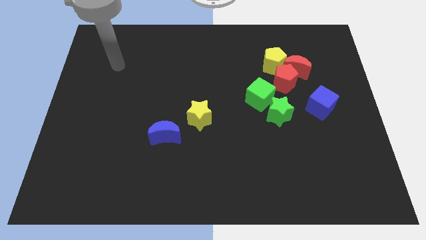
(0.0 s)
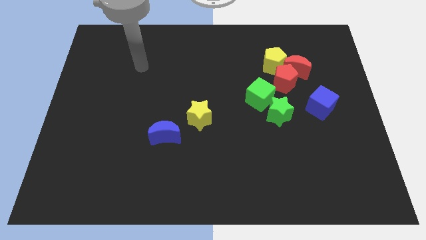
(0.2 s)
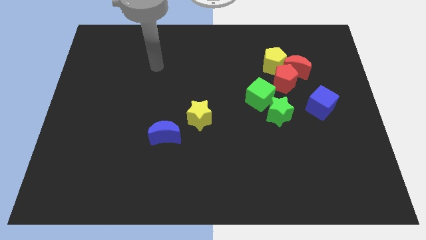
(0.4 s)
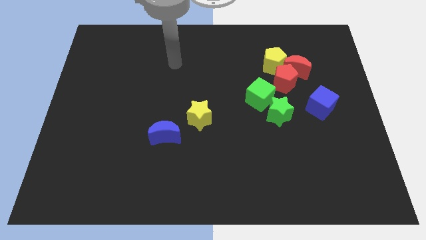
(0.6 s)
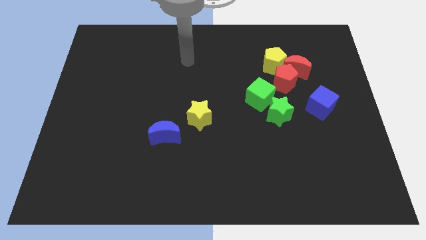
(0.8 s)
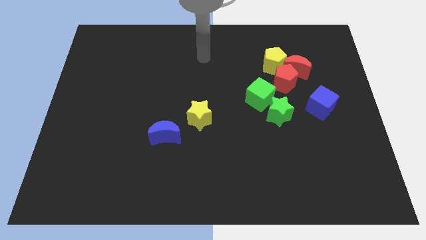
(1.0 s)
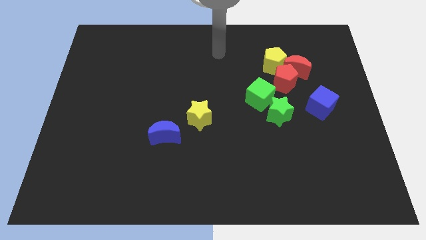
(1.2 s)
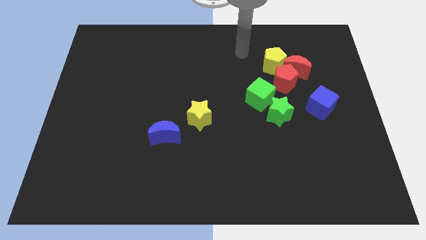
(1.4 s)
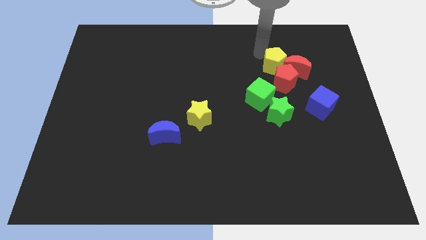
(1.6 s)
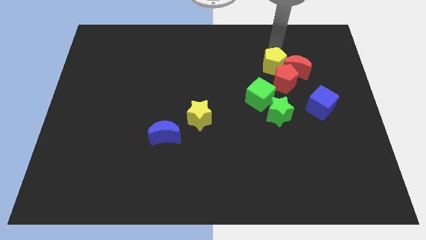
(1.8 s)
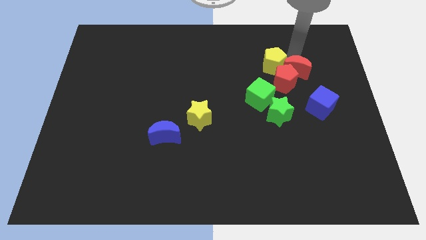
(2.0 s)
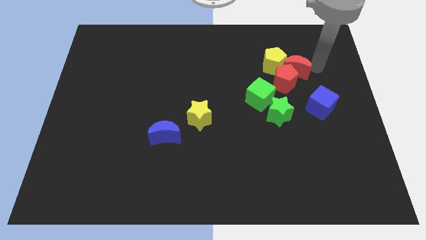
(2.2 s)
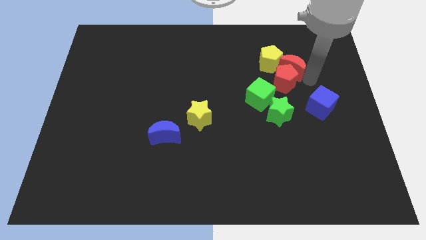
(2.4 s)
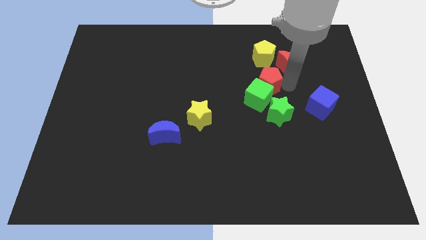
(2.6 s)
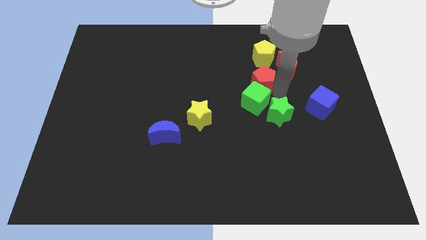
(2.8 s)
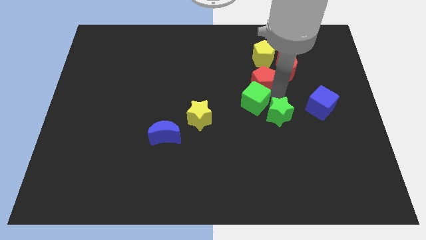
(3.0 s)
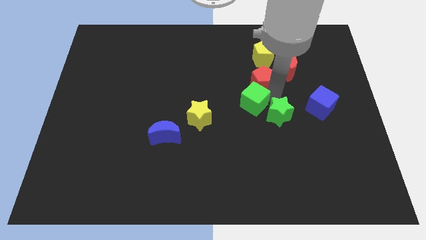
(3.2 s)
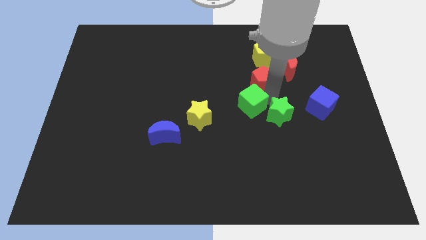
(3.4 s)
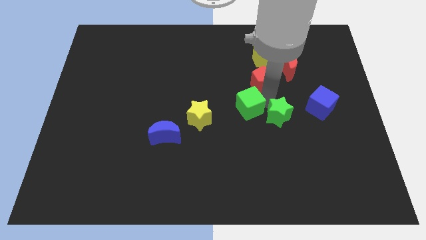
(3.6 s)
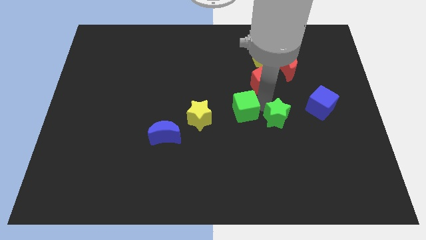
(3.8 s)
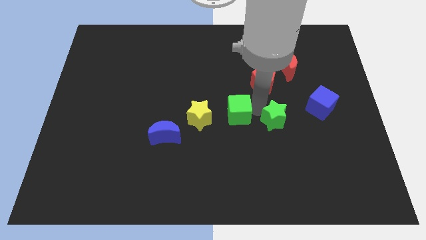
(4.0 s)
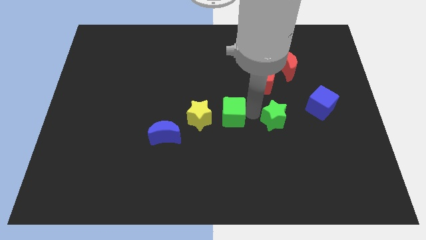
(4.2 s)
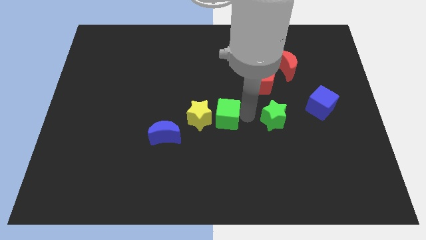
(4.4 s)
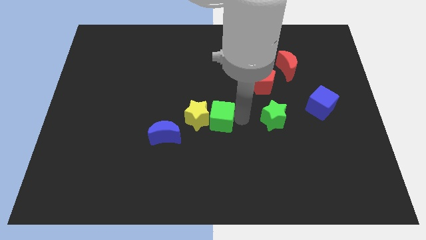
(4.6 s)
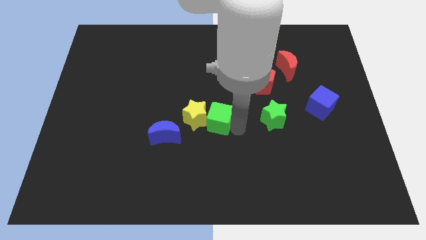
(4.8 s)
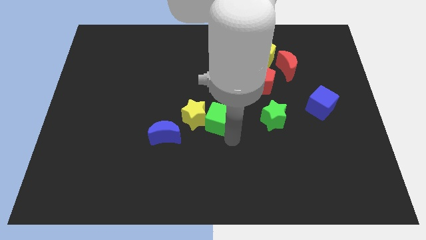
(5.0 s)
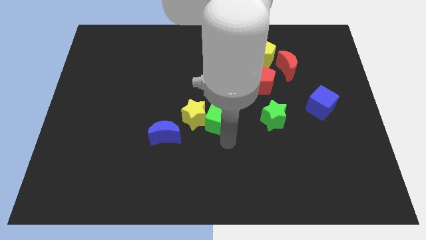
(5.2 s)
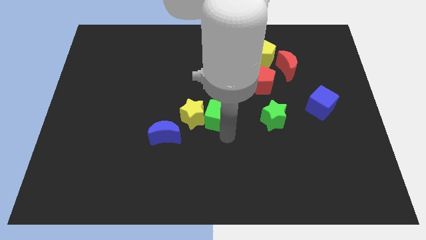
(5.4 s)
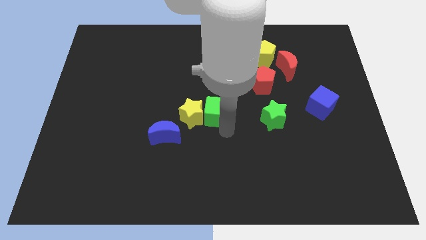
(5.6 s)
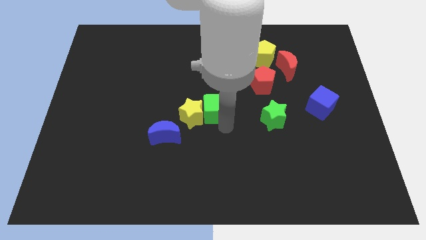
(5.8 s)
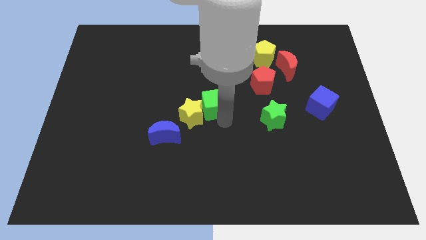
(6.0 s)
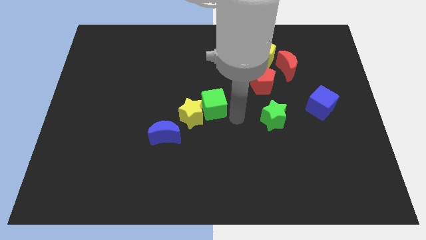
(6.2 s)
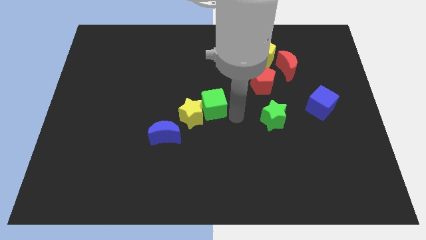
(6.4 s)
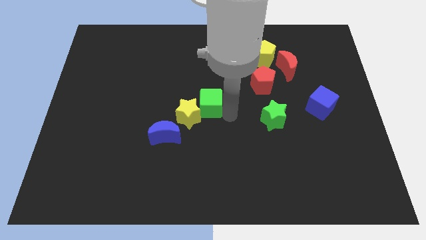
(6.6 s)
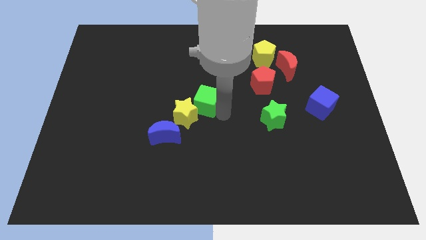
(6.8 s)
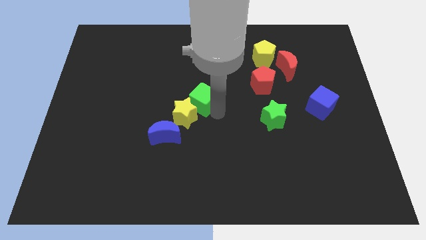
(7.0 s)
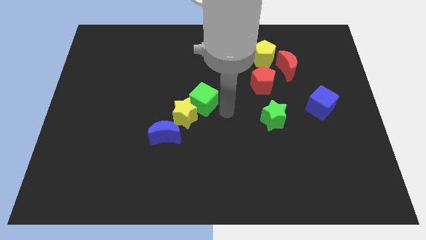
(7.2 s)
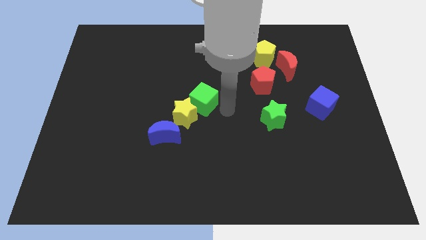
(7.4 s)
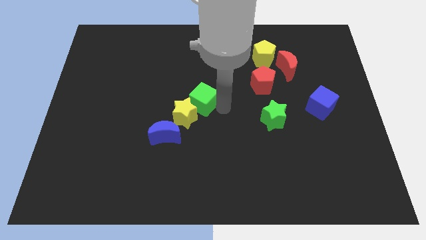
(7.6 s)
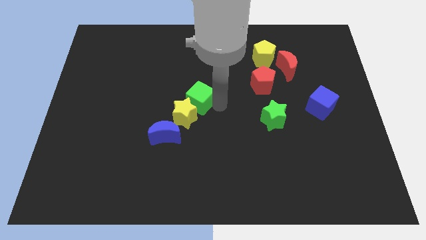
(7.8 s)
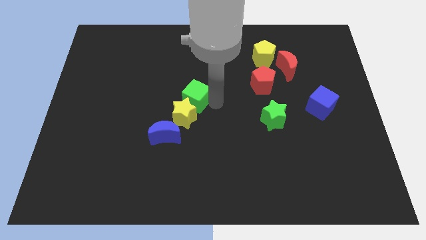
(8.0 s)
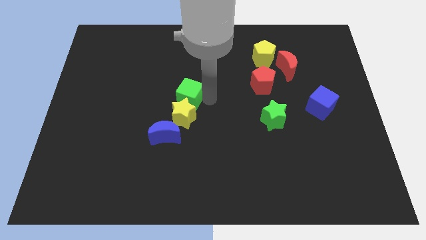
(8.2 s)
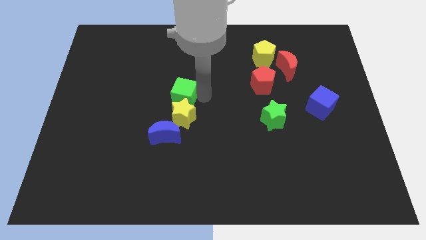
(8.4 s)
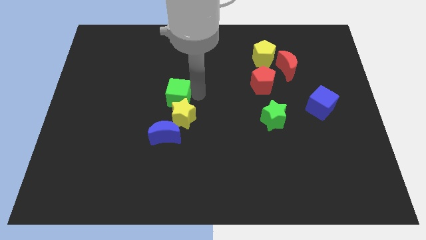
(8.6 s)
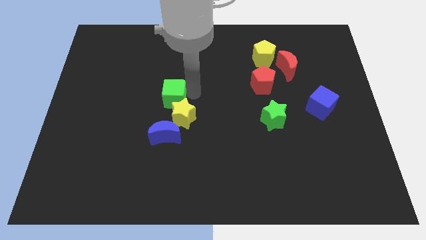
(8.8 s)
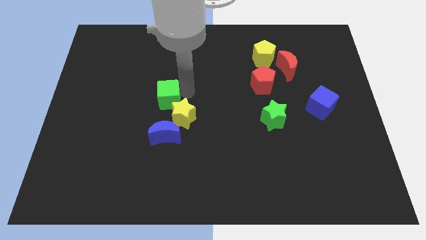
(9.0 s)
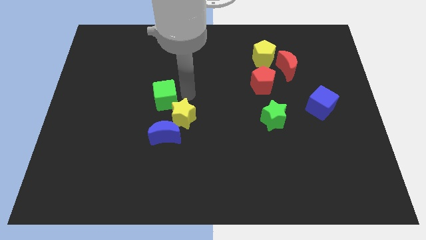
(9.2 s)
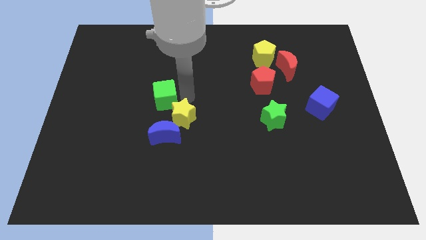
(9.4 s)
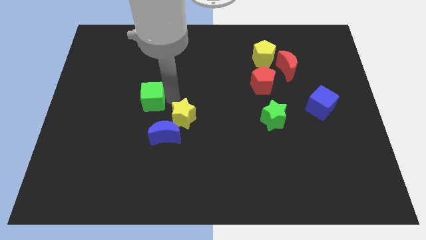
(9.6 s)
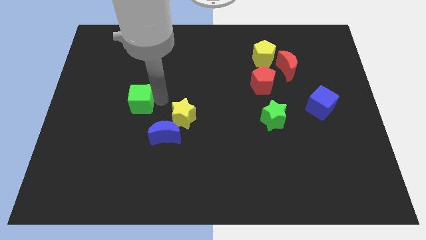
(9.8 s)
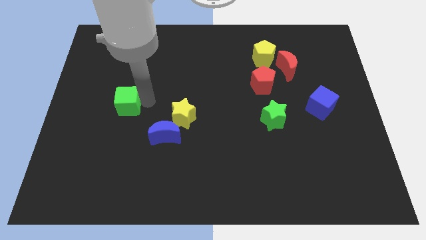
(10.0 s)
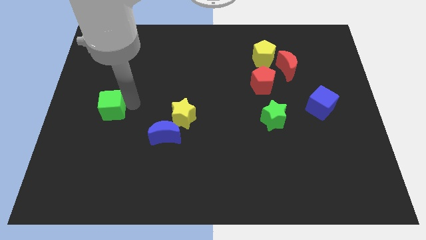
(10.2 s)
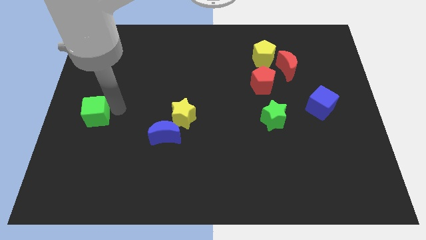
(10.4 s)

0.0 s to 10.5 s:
slide the green cube to the left side
